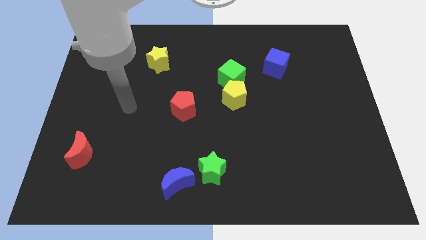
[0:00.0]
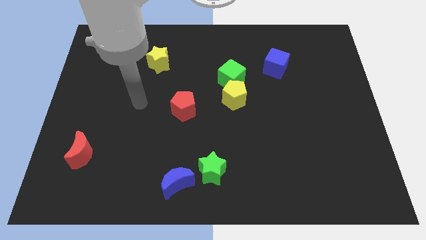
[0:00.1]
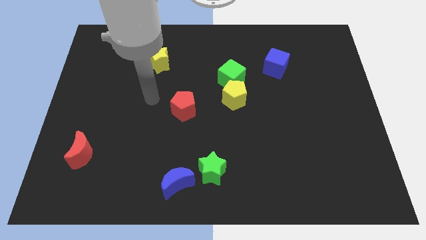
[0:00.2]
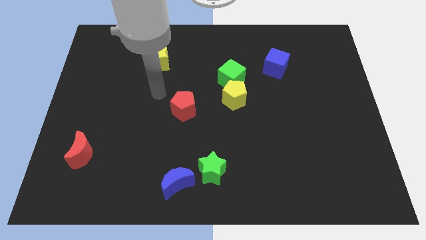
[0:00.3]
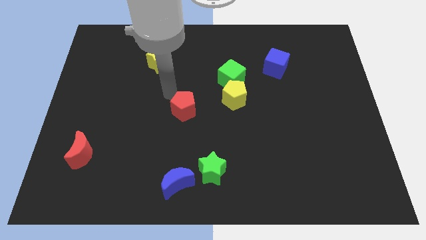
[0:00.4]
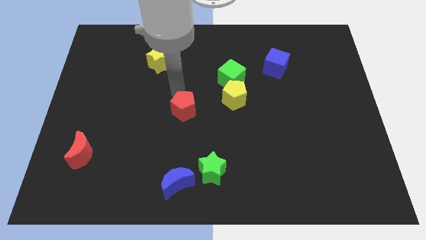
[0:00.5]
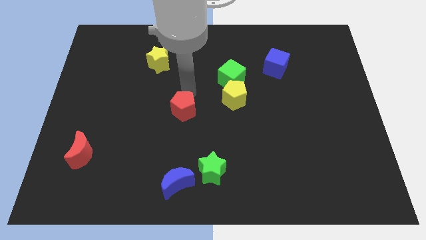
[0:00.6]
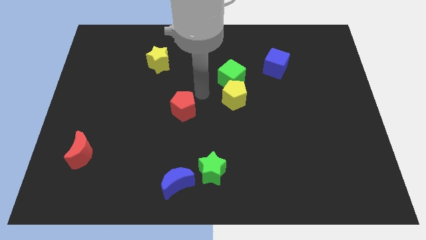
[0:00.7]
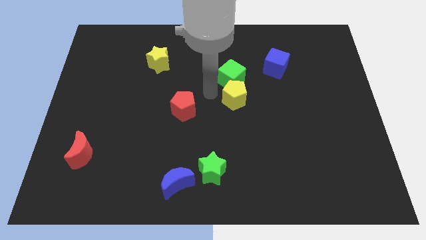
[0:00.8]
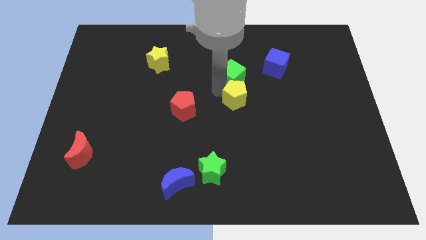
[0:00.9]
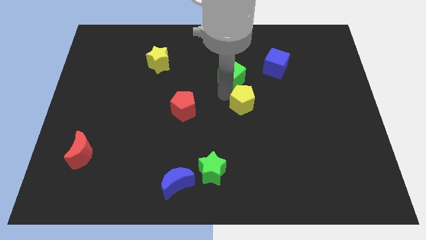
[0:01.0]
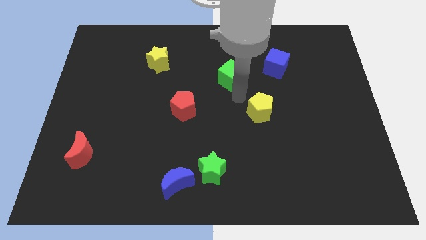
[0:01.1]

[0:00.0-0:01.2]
separate the green cube from the yellow pentagon

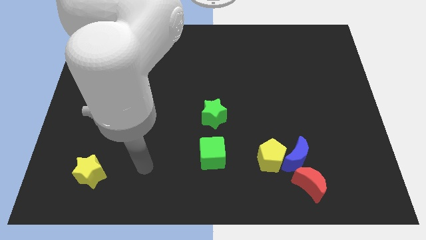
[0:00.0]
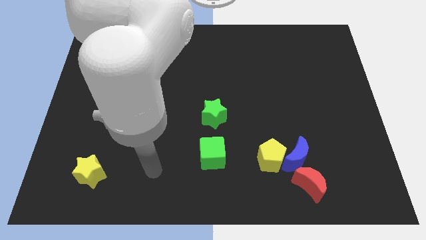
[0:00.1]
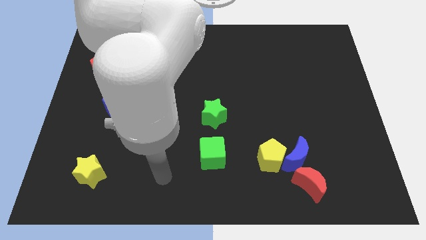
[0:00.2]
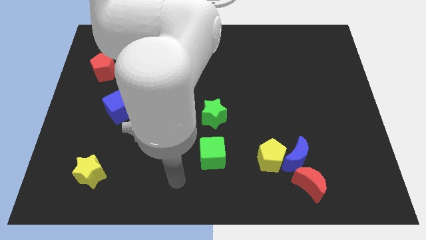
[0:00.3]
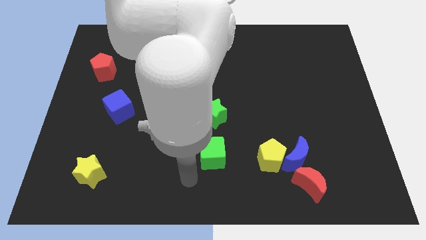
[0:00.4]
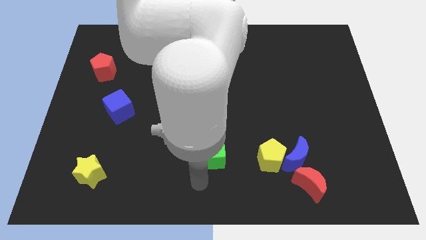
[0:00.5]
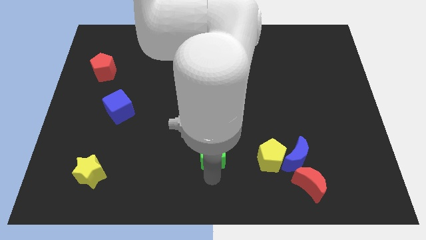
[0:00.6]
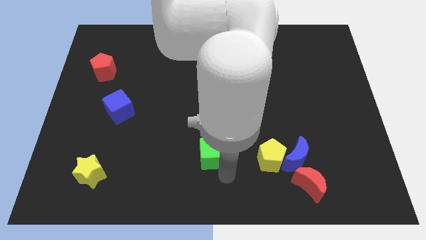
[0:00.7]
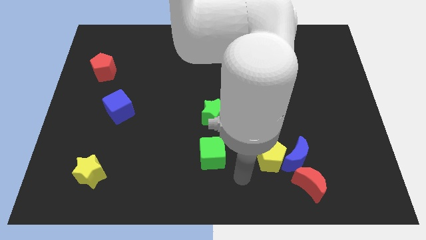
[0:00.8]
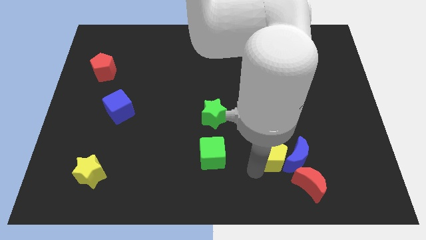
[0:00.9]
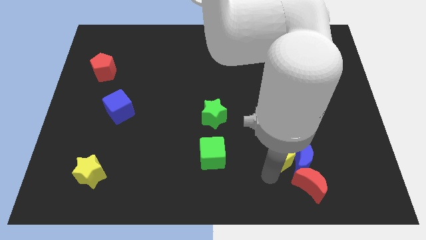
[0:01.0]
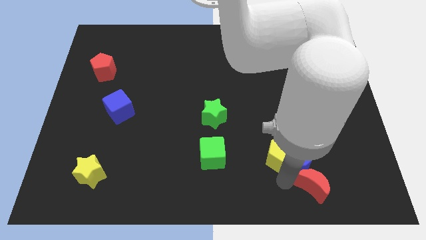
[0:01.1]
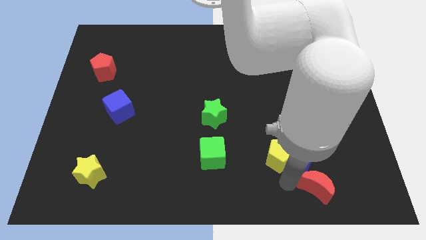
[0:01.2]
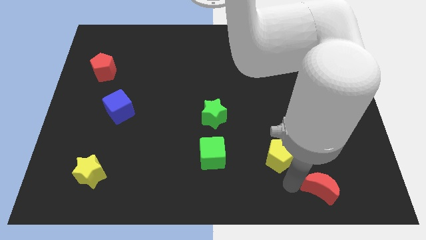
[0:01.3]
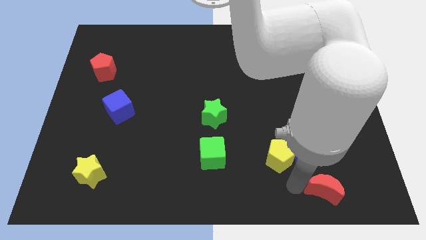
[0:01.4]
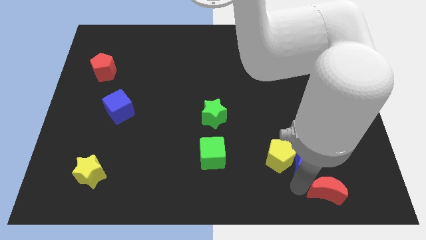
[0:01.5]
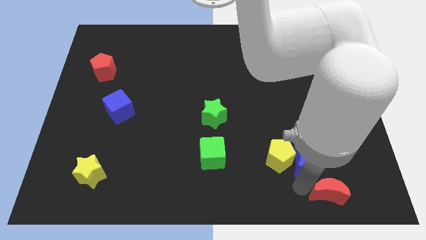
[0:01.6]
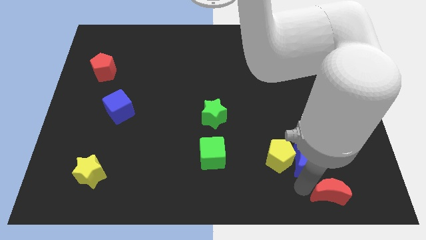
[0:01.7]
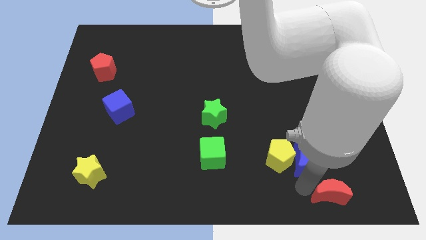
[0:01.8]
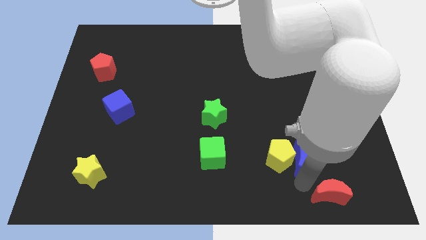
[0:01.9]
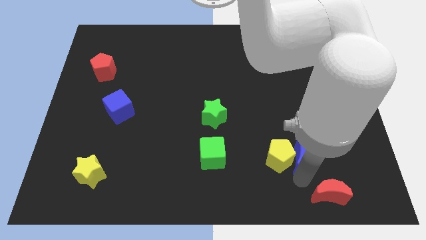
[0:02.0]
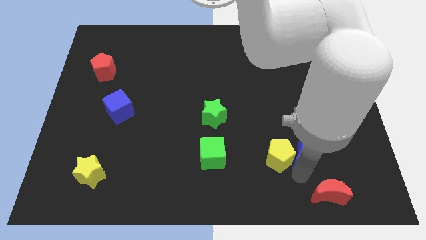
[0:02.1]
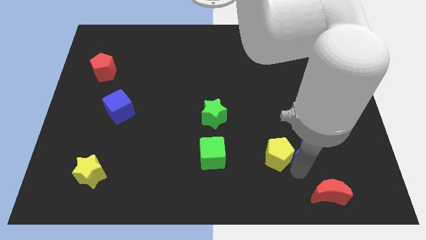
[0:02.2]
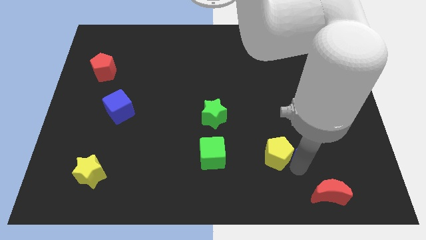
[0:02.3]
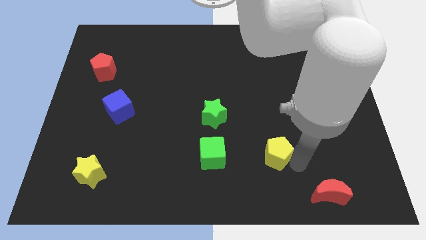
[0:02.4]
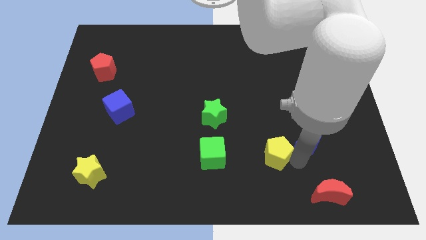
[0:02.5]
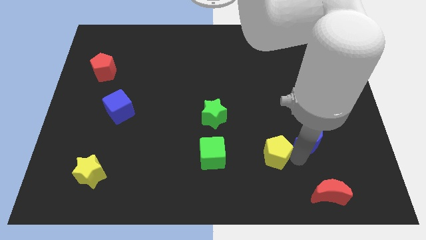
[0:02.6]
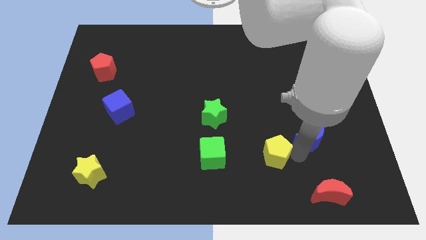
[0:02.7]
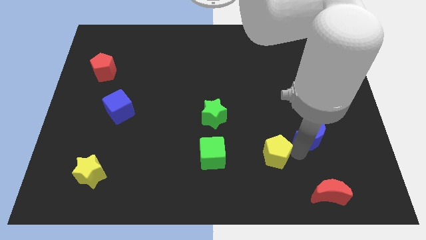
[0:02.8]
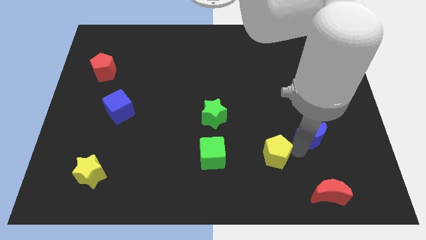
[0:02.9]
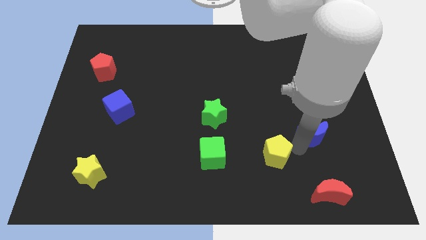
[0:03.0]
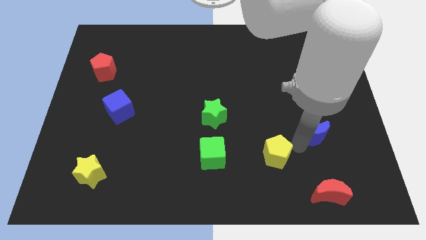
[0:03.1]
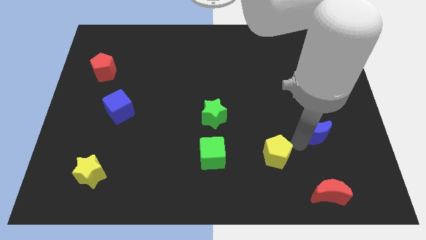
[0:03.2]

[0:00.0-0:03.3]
pull the blue moon apart from the yellow pentagon and red moon

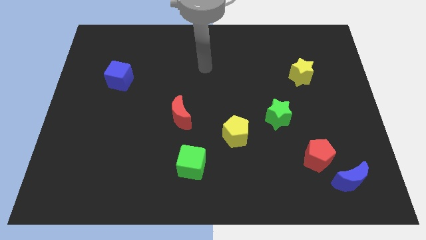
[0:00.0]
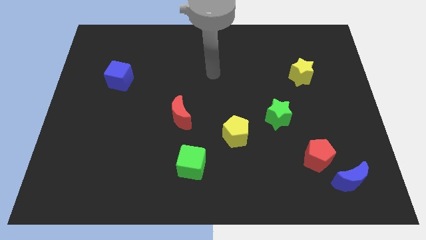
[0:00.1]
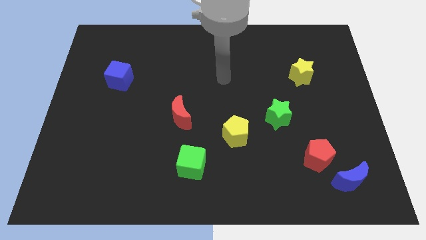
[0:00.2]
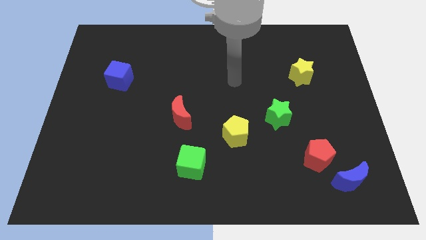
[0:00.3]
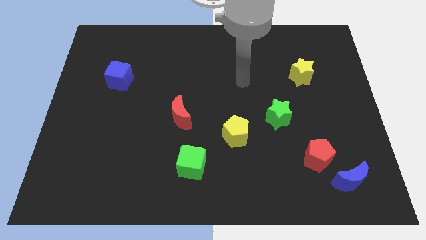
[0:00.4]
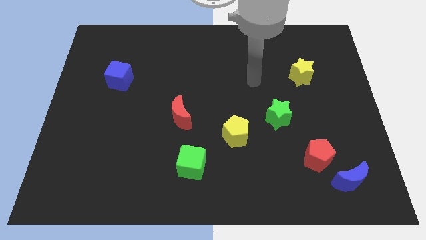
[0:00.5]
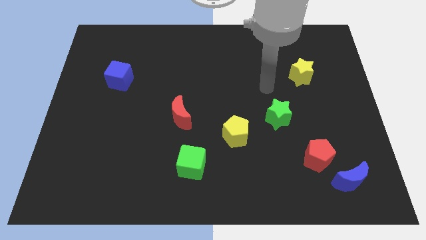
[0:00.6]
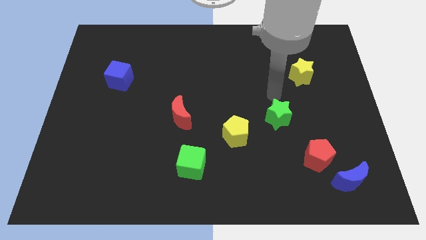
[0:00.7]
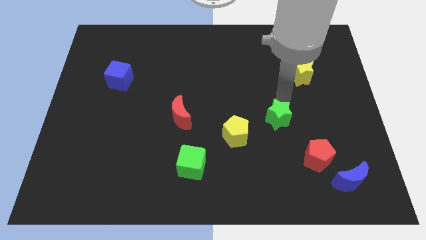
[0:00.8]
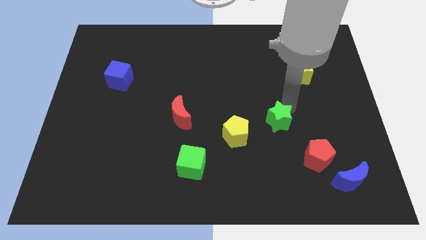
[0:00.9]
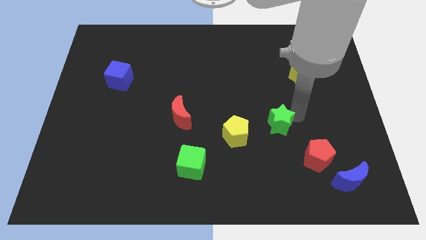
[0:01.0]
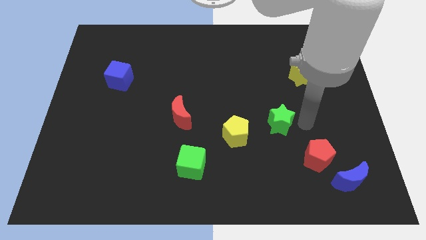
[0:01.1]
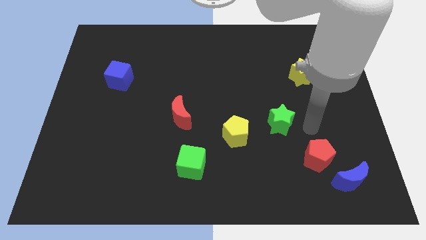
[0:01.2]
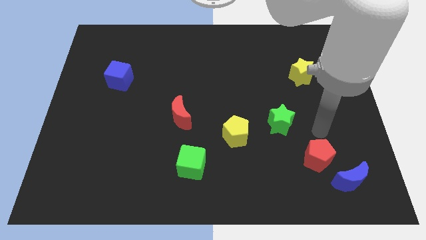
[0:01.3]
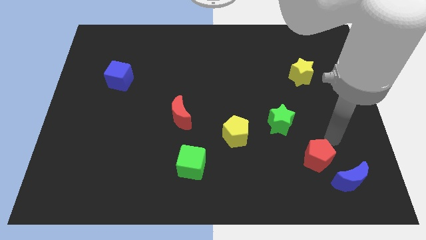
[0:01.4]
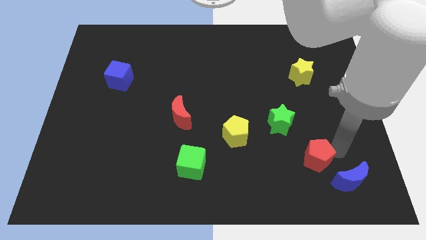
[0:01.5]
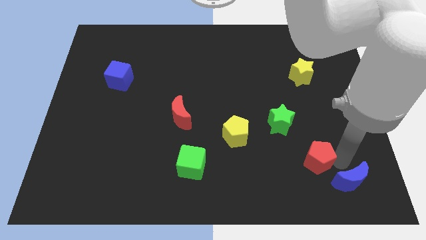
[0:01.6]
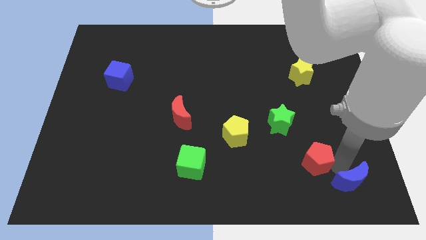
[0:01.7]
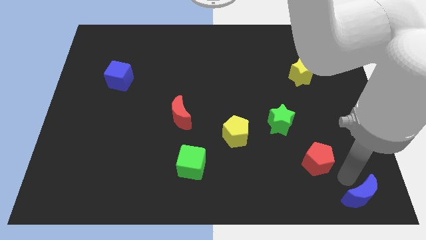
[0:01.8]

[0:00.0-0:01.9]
pull the red pentagon apart from the blue moon

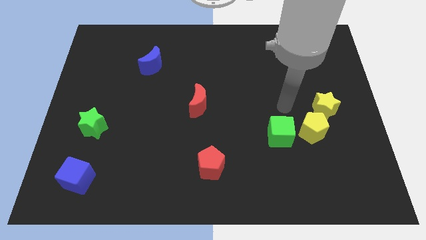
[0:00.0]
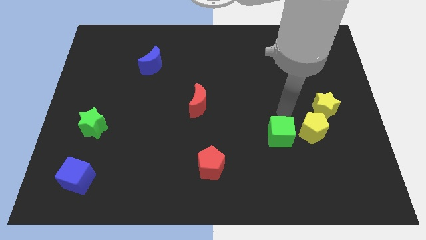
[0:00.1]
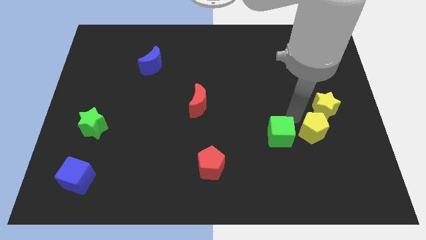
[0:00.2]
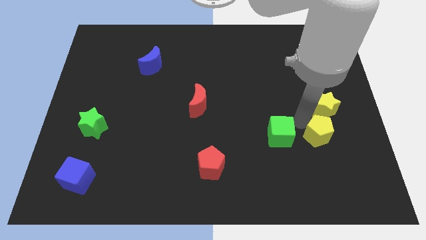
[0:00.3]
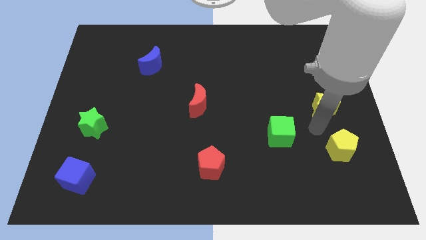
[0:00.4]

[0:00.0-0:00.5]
separate the yellow star from the yellow pentagon

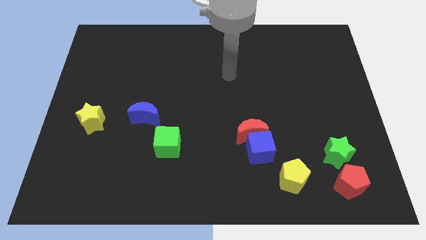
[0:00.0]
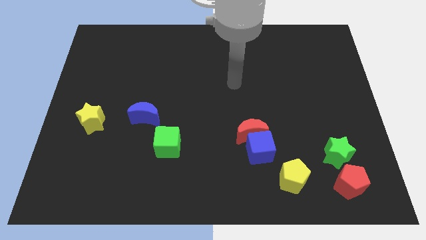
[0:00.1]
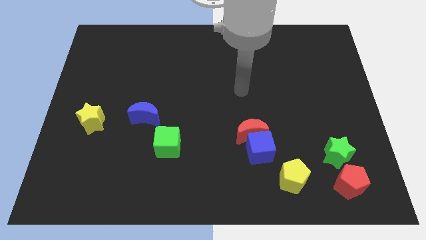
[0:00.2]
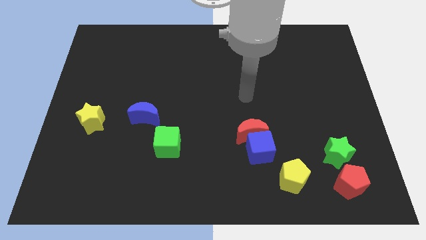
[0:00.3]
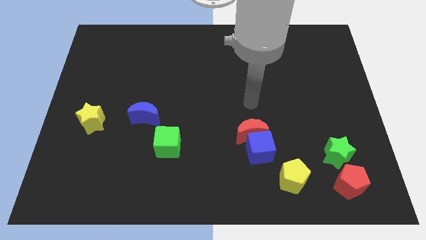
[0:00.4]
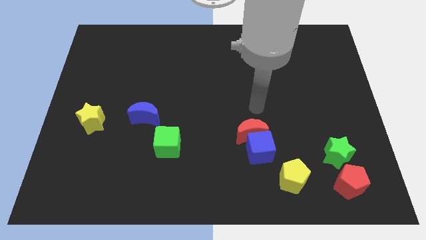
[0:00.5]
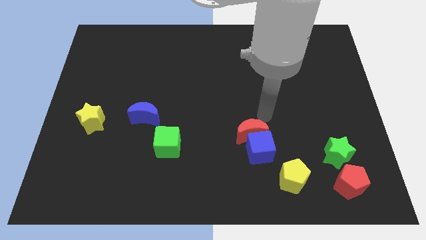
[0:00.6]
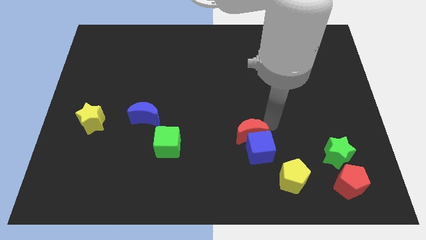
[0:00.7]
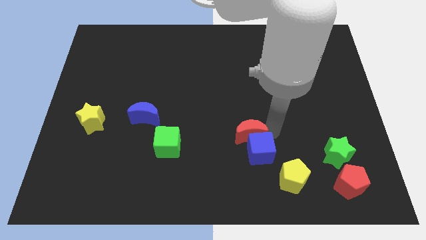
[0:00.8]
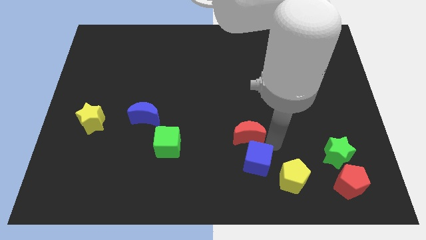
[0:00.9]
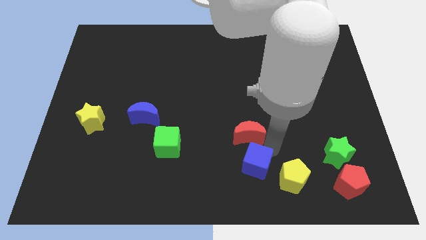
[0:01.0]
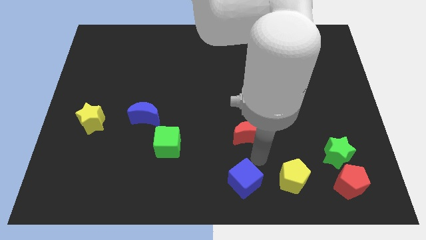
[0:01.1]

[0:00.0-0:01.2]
pull the red moon apart from the blue cube

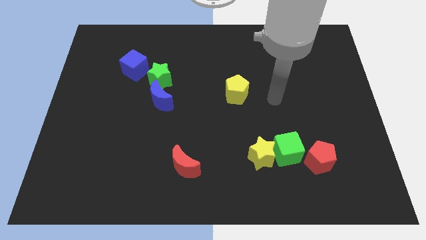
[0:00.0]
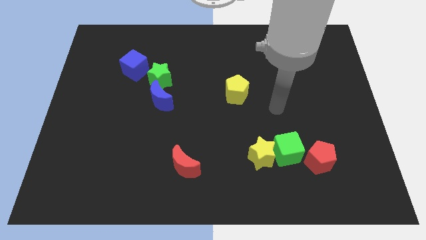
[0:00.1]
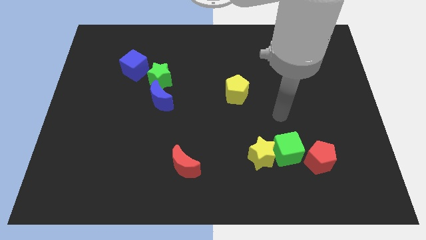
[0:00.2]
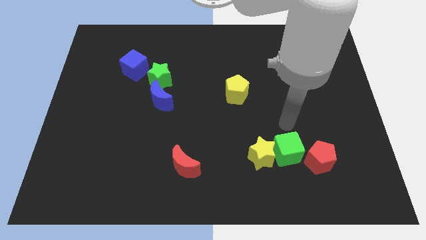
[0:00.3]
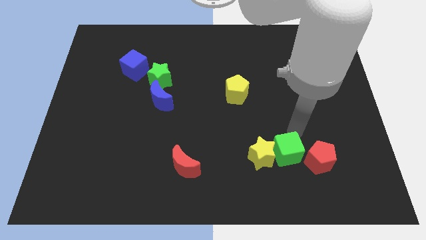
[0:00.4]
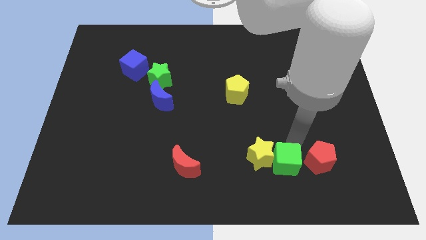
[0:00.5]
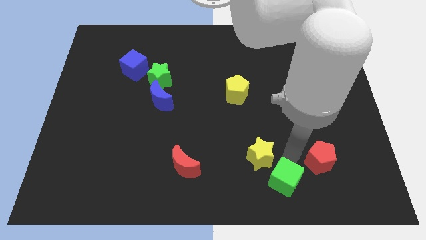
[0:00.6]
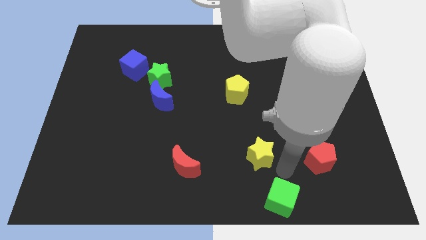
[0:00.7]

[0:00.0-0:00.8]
separate the yellow star from the green cube

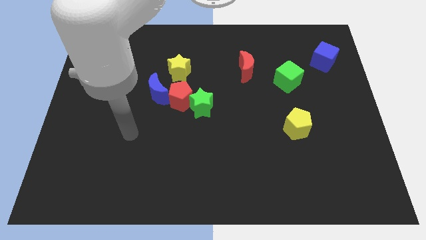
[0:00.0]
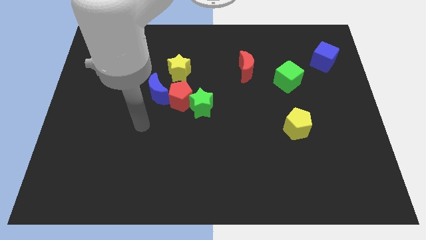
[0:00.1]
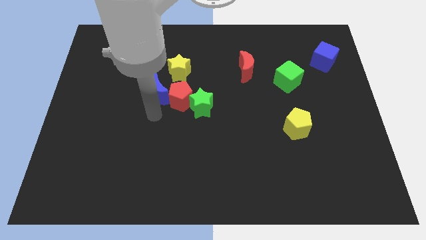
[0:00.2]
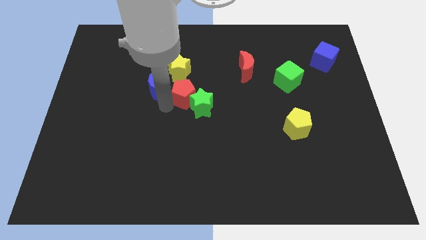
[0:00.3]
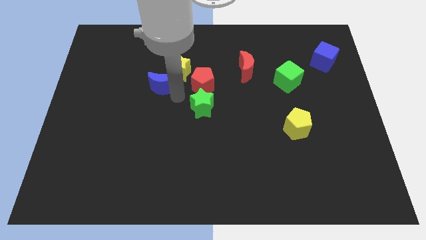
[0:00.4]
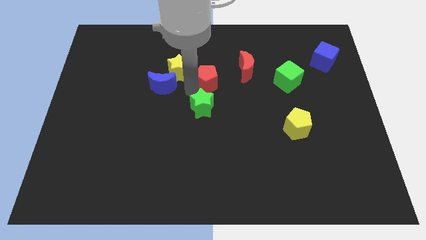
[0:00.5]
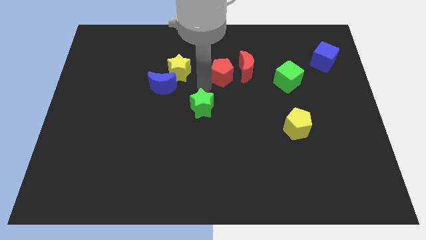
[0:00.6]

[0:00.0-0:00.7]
pull the green star apart from the red pentagon
